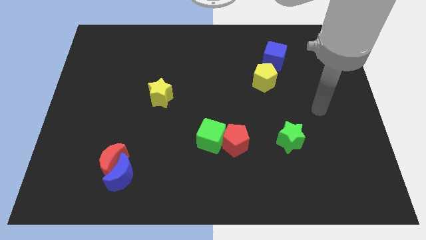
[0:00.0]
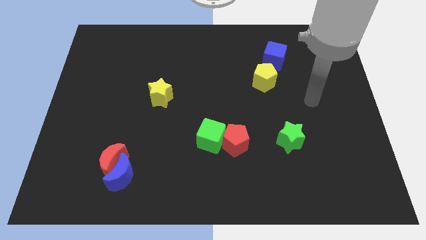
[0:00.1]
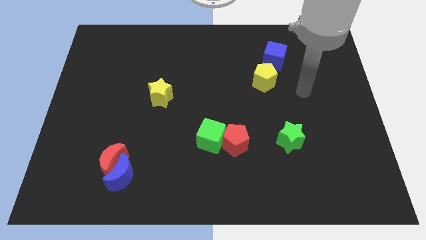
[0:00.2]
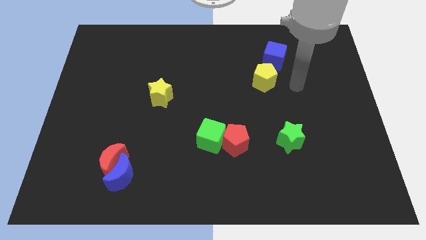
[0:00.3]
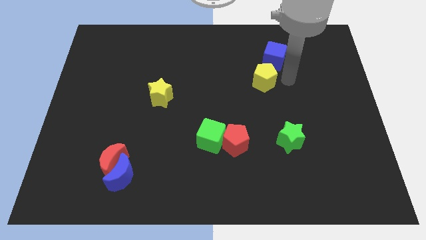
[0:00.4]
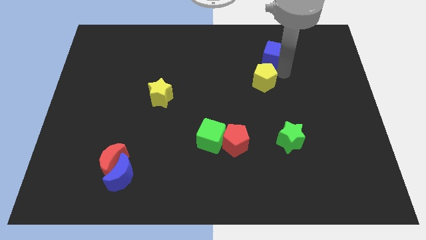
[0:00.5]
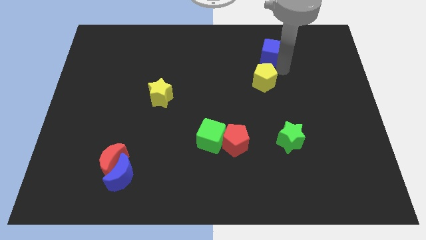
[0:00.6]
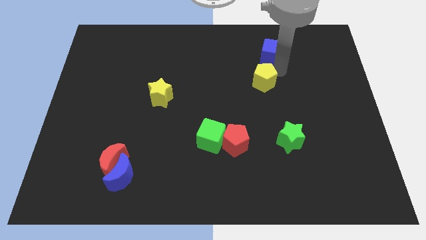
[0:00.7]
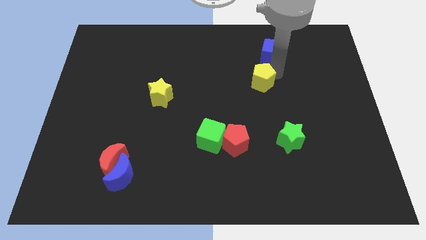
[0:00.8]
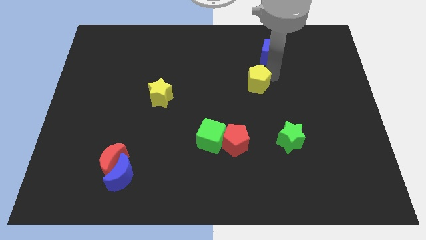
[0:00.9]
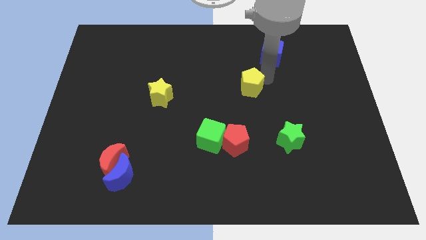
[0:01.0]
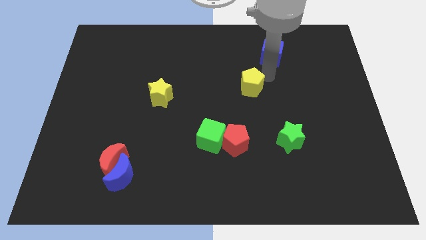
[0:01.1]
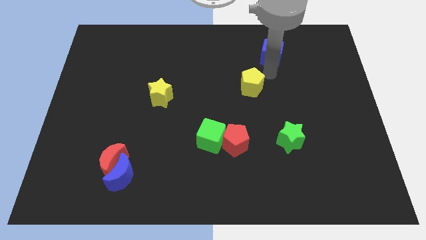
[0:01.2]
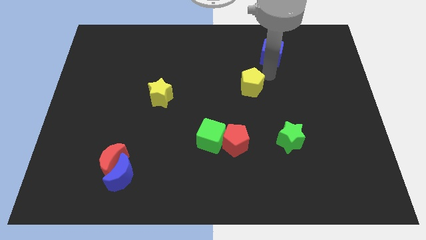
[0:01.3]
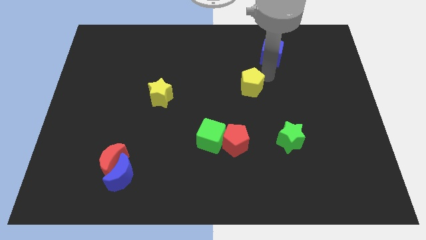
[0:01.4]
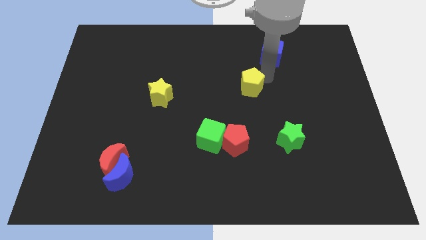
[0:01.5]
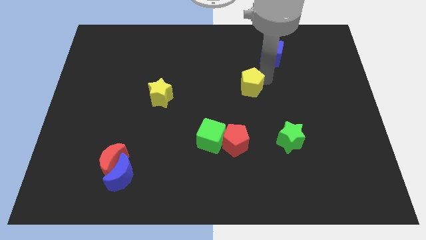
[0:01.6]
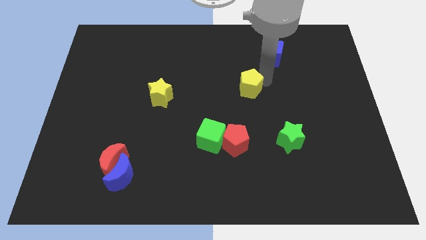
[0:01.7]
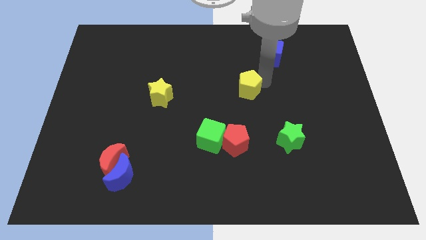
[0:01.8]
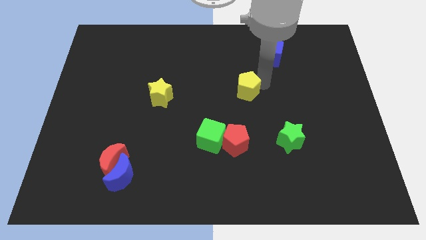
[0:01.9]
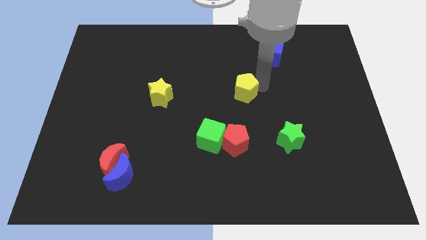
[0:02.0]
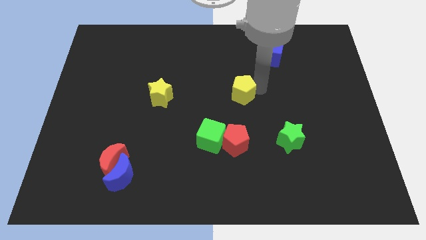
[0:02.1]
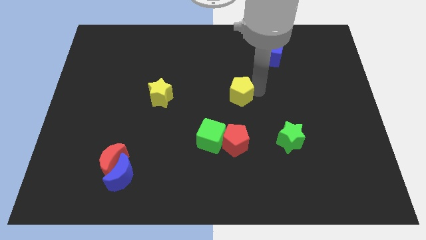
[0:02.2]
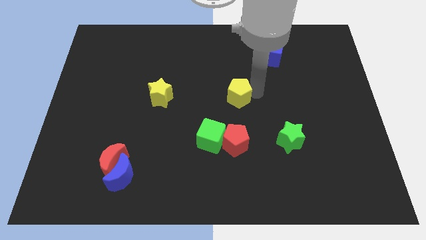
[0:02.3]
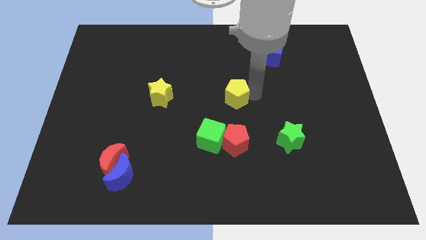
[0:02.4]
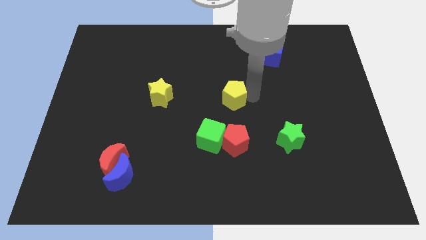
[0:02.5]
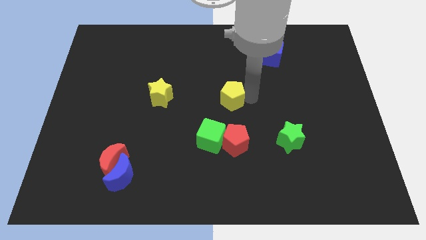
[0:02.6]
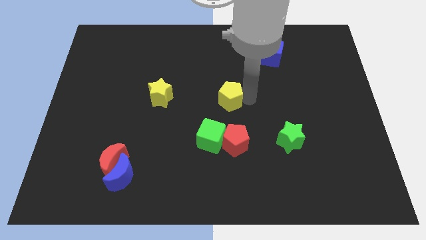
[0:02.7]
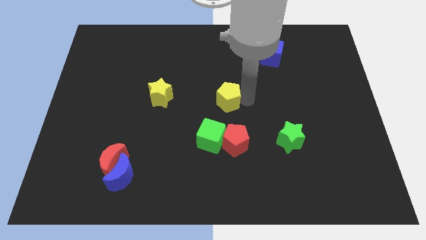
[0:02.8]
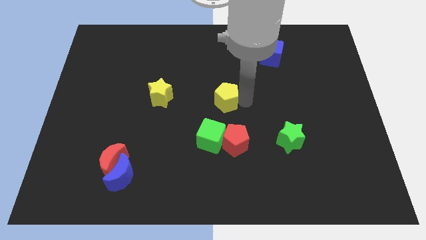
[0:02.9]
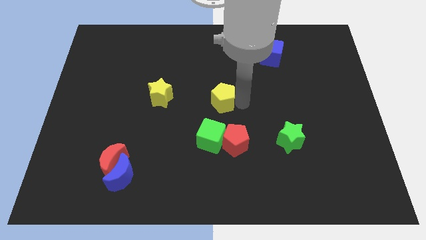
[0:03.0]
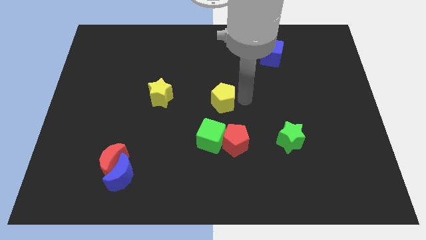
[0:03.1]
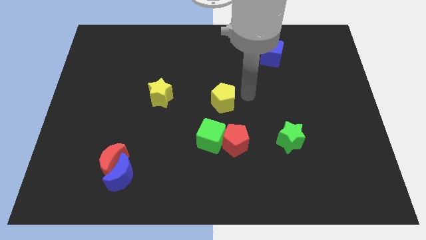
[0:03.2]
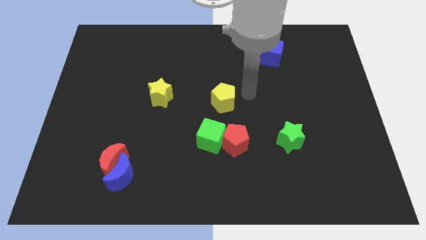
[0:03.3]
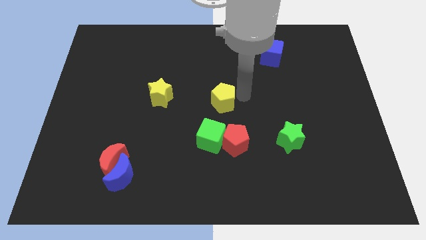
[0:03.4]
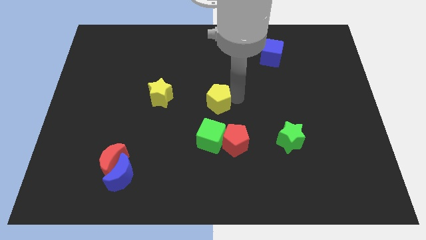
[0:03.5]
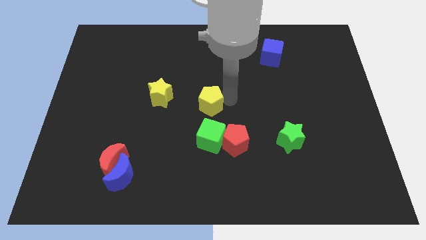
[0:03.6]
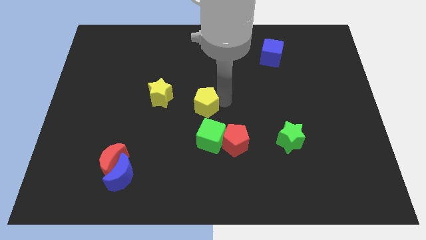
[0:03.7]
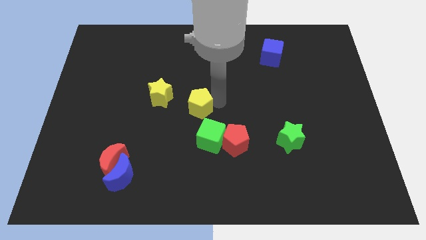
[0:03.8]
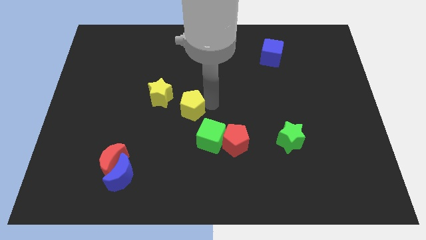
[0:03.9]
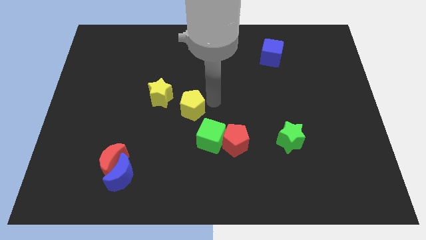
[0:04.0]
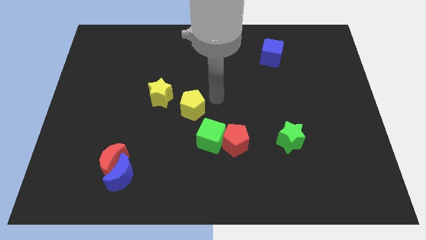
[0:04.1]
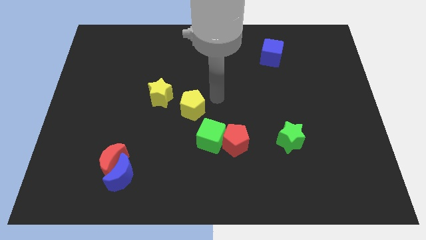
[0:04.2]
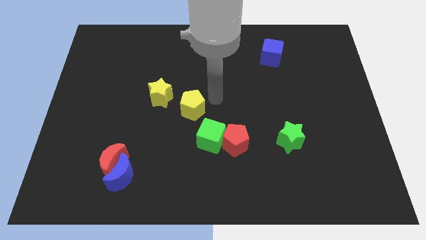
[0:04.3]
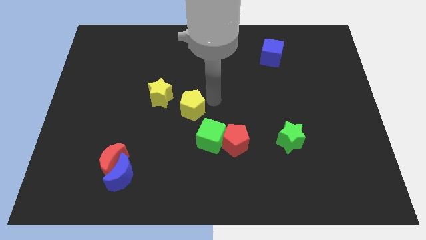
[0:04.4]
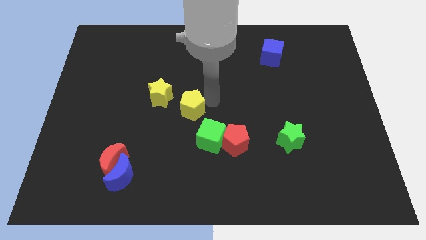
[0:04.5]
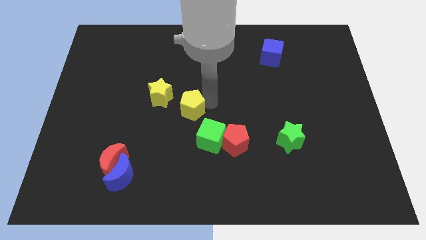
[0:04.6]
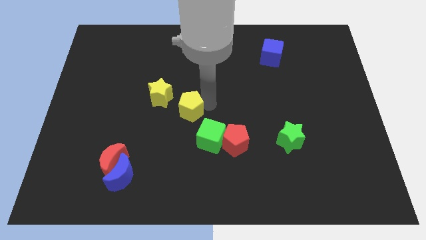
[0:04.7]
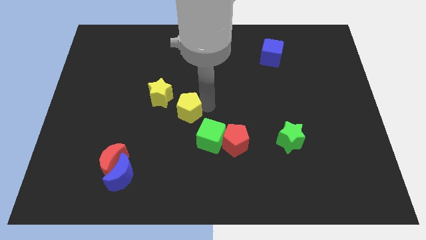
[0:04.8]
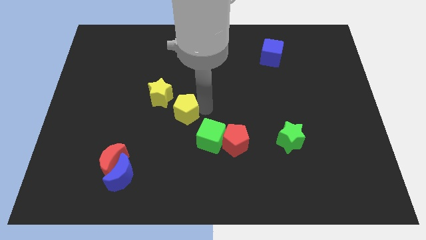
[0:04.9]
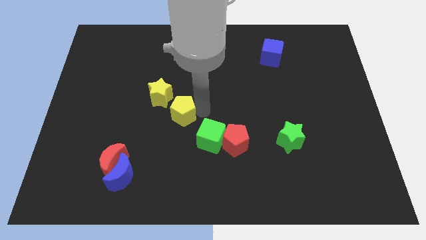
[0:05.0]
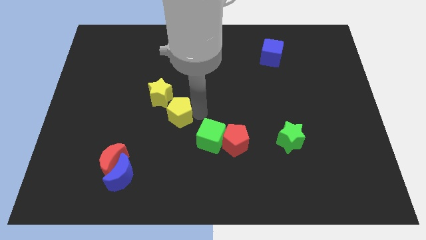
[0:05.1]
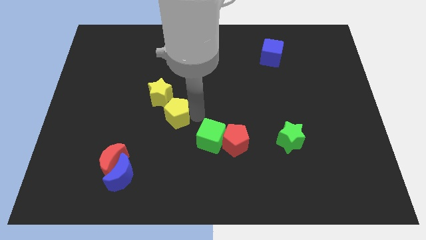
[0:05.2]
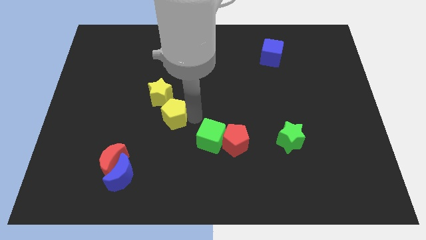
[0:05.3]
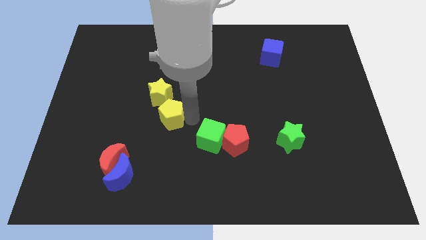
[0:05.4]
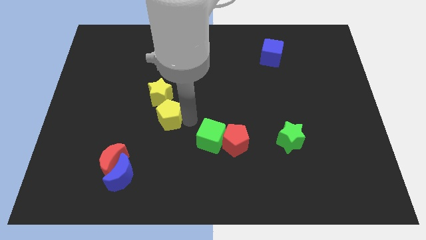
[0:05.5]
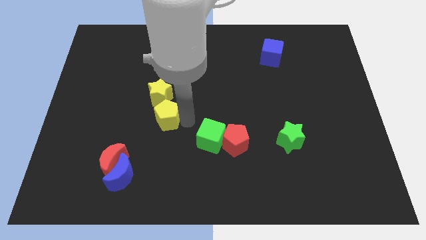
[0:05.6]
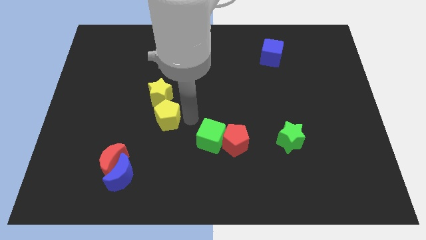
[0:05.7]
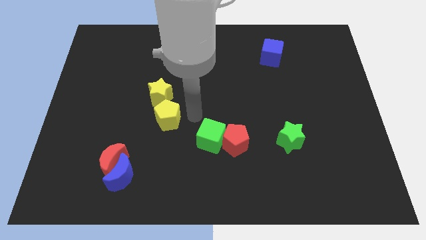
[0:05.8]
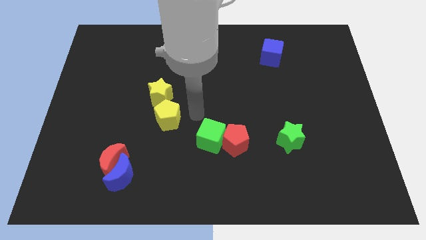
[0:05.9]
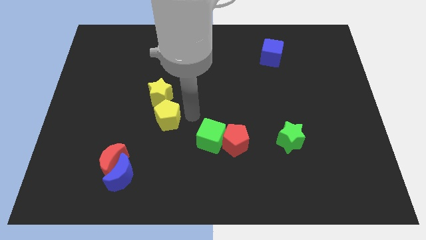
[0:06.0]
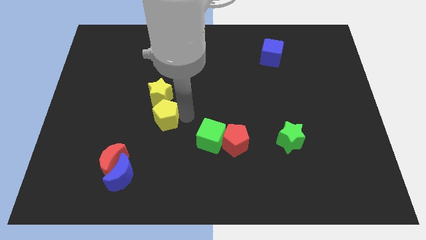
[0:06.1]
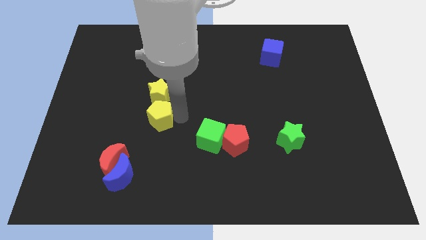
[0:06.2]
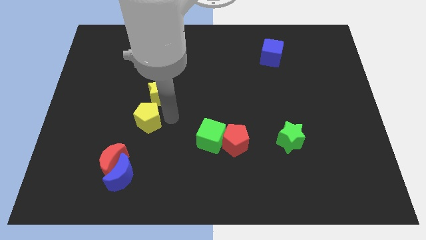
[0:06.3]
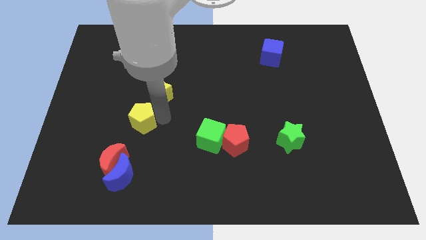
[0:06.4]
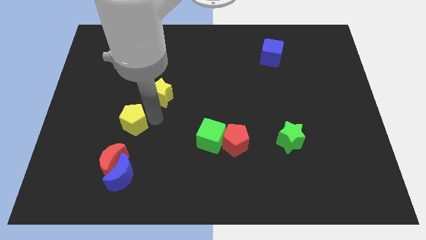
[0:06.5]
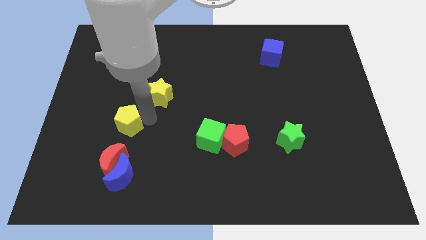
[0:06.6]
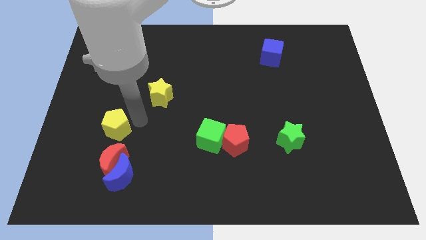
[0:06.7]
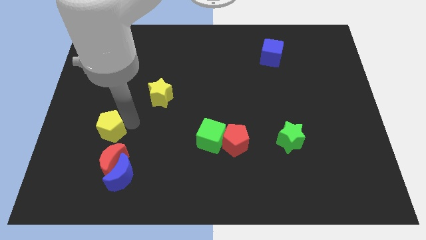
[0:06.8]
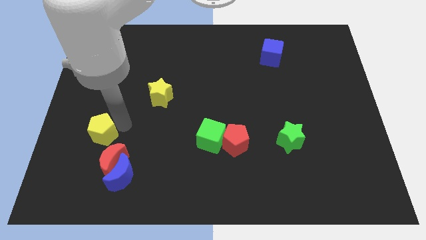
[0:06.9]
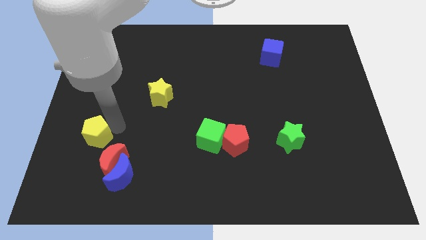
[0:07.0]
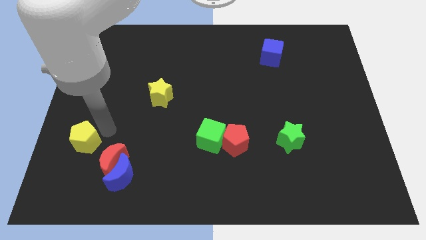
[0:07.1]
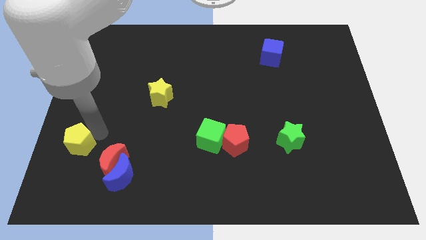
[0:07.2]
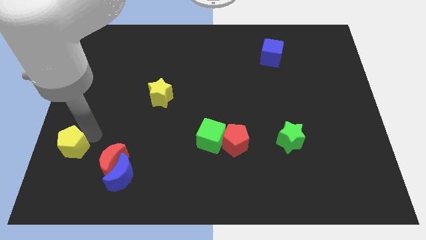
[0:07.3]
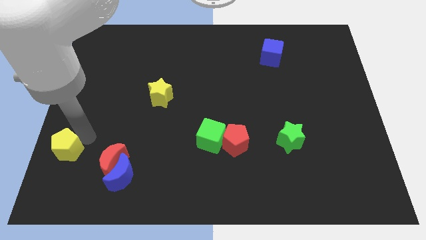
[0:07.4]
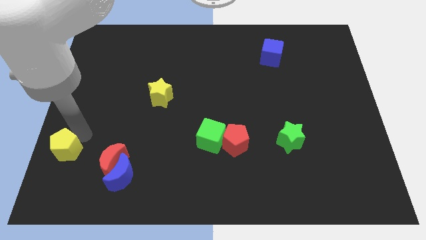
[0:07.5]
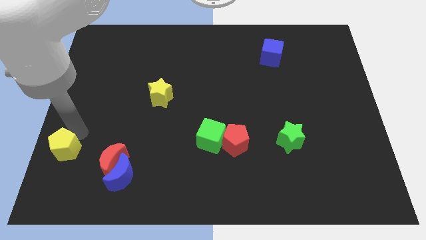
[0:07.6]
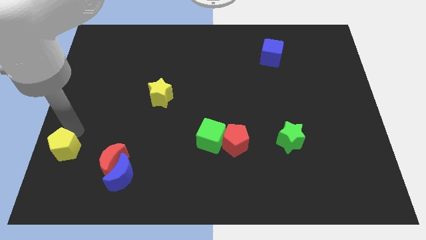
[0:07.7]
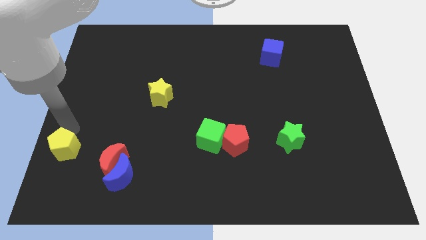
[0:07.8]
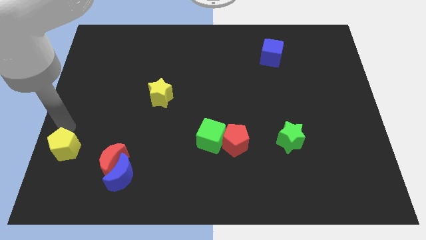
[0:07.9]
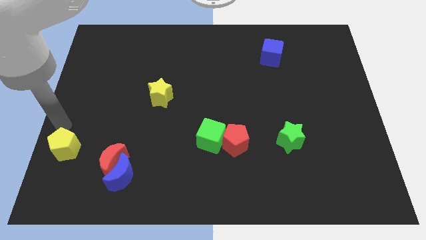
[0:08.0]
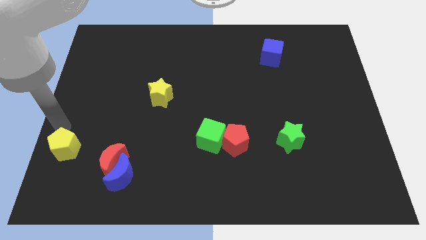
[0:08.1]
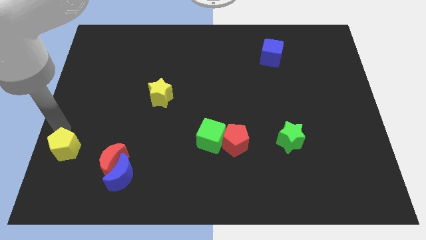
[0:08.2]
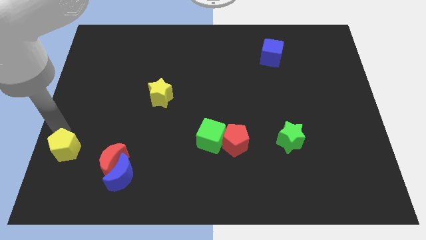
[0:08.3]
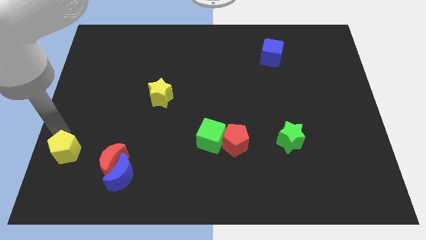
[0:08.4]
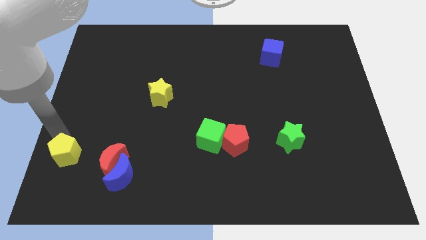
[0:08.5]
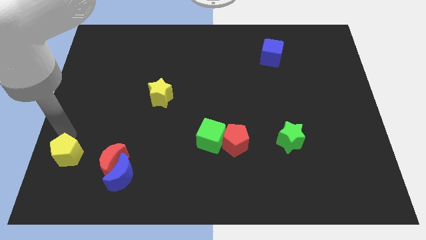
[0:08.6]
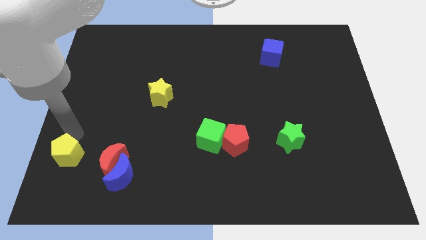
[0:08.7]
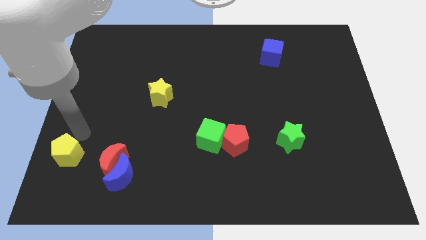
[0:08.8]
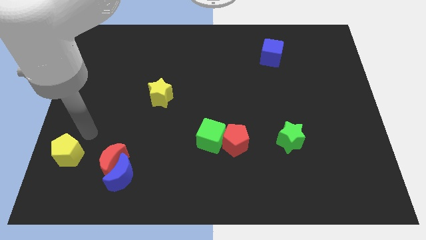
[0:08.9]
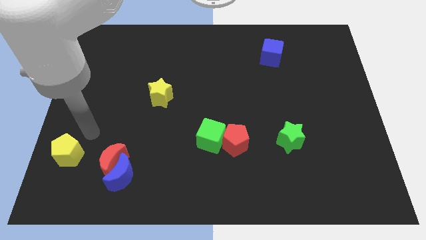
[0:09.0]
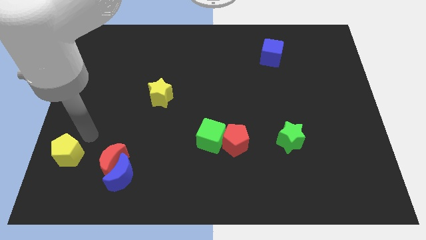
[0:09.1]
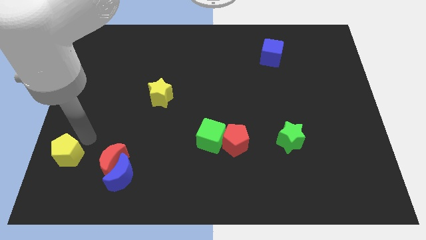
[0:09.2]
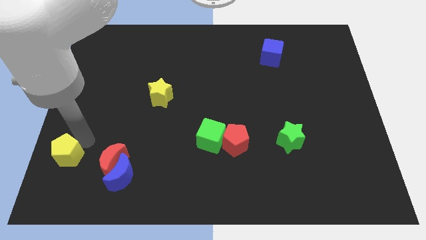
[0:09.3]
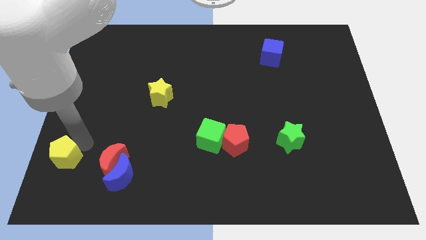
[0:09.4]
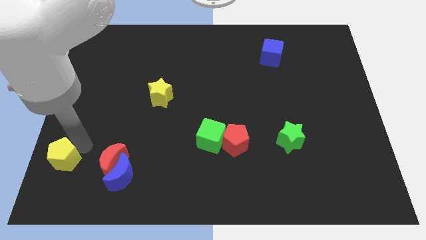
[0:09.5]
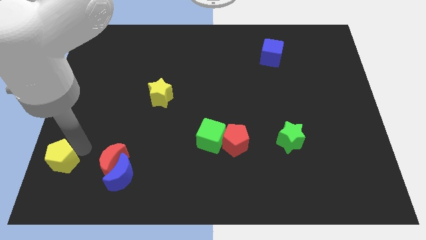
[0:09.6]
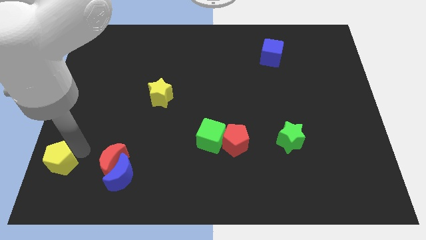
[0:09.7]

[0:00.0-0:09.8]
slide the yellow pentagon to the bottom left of the board
